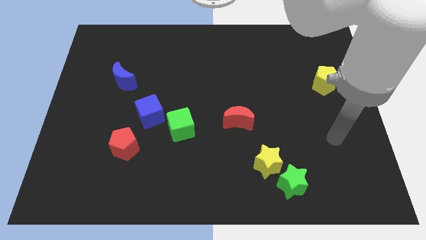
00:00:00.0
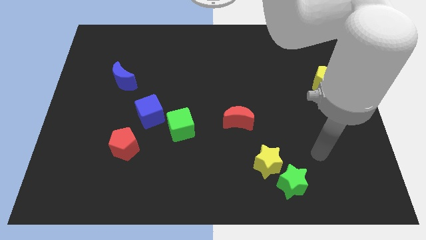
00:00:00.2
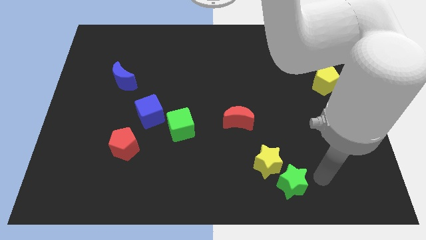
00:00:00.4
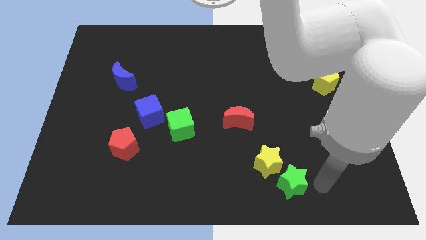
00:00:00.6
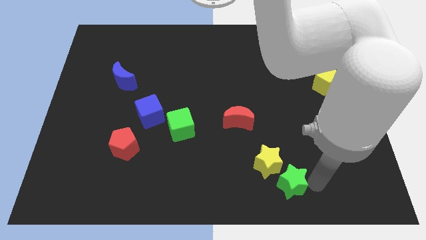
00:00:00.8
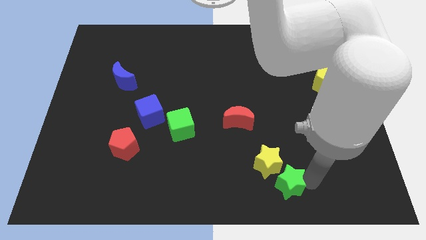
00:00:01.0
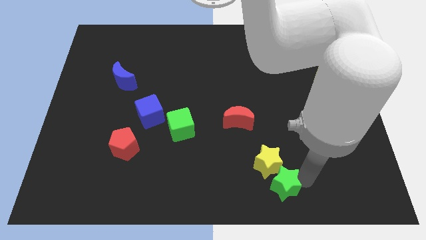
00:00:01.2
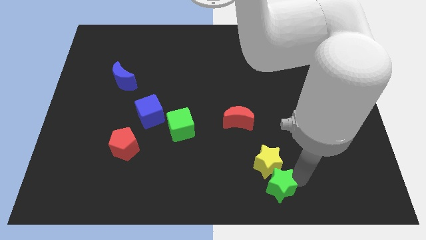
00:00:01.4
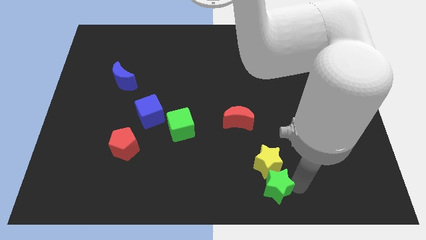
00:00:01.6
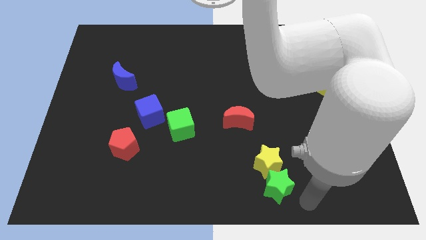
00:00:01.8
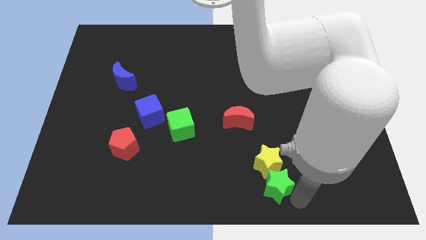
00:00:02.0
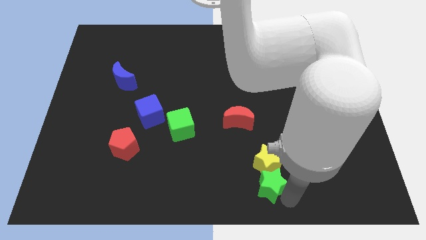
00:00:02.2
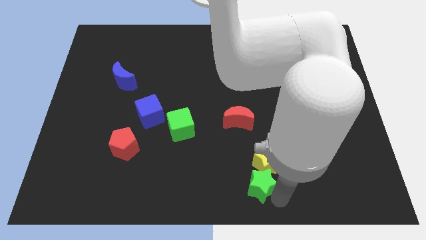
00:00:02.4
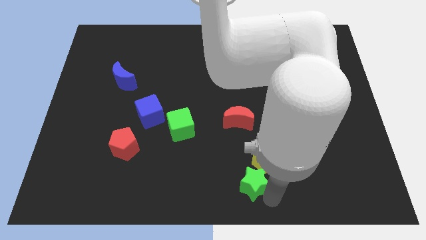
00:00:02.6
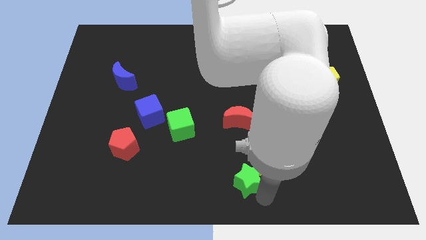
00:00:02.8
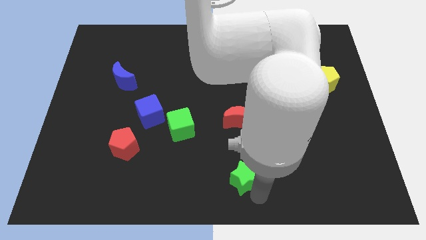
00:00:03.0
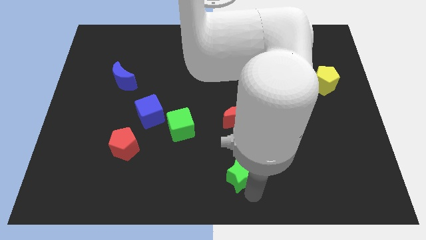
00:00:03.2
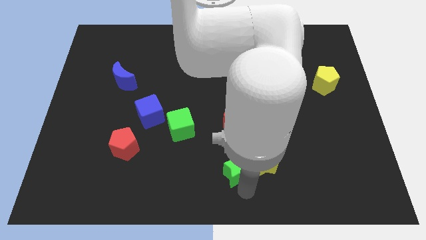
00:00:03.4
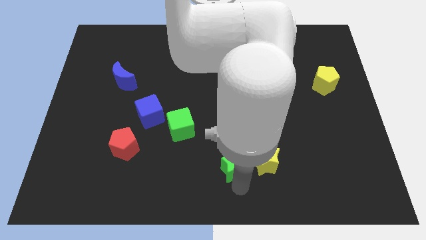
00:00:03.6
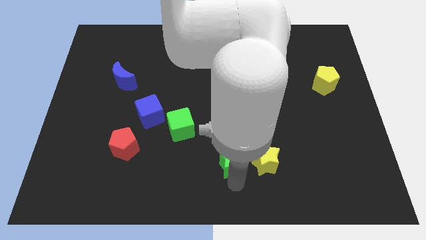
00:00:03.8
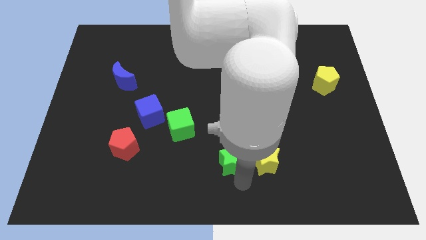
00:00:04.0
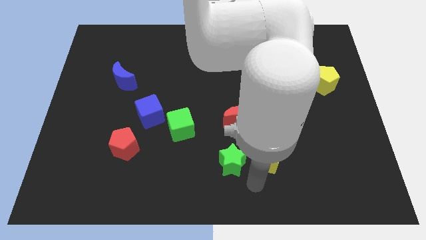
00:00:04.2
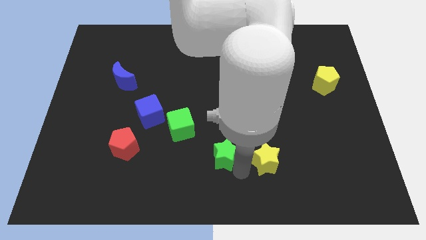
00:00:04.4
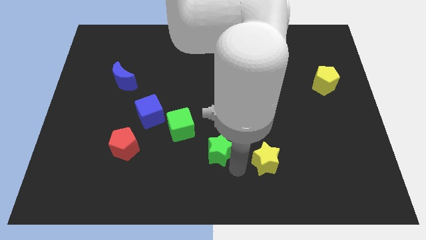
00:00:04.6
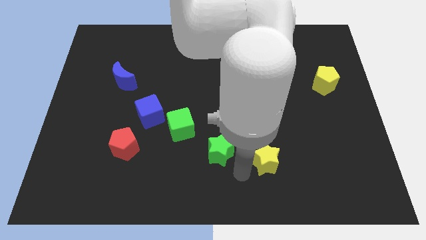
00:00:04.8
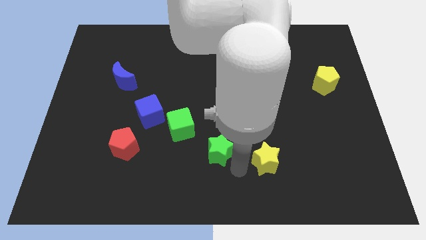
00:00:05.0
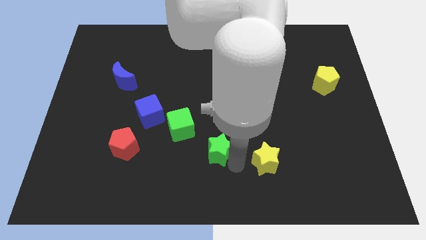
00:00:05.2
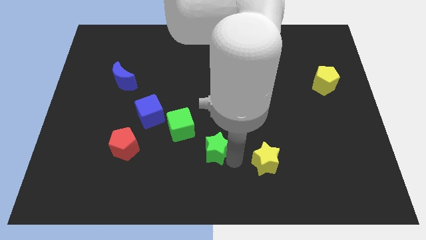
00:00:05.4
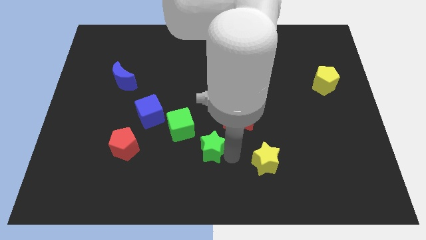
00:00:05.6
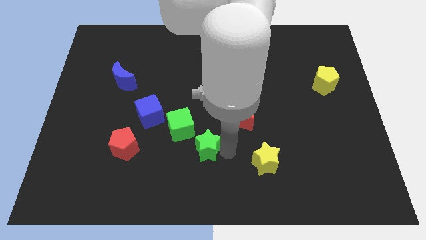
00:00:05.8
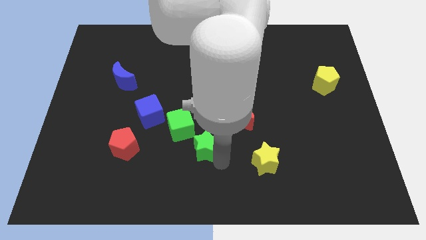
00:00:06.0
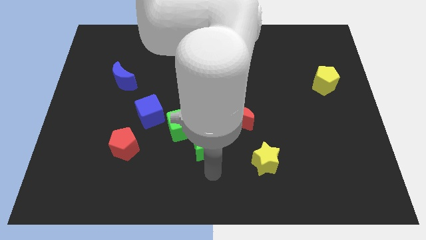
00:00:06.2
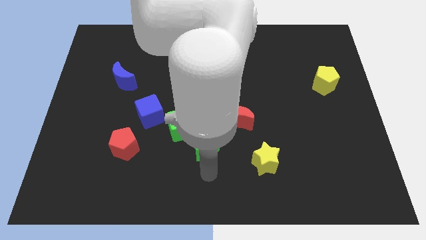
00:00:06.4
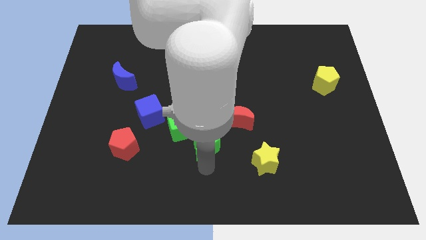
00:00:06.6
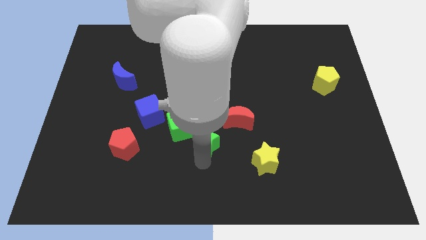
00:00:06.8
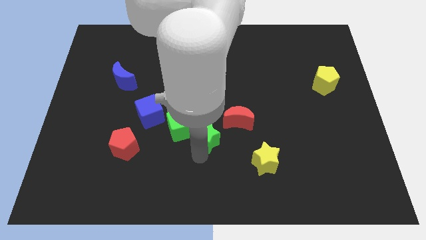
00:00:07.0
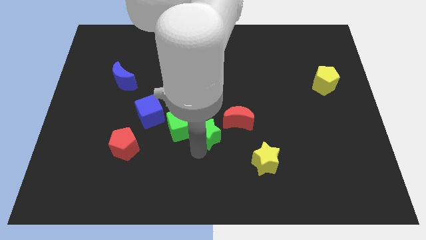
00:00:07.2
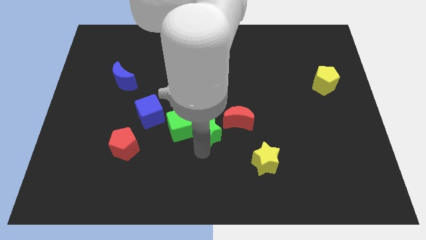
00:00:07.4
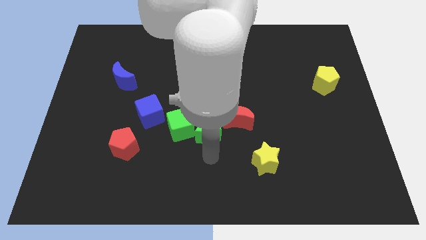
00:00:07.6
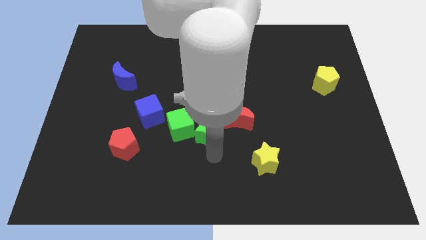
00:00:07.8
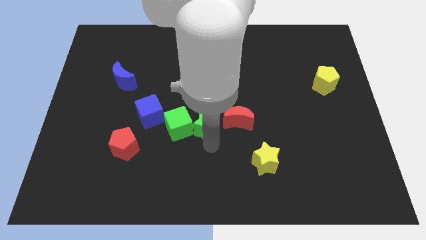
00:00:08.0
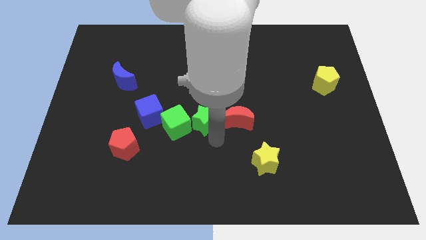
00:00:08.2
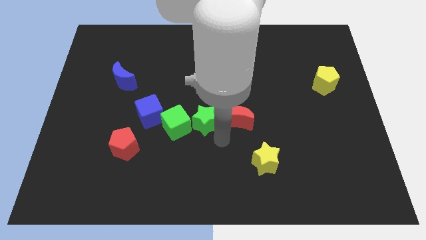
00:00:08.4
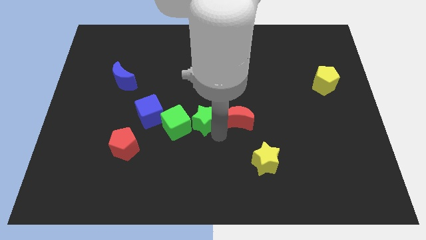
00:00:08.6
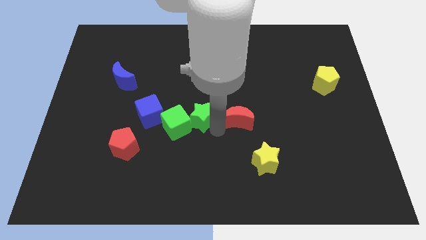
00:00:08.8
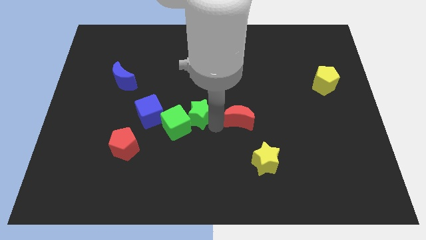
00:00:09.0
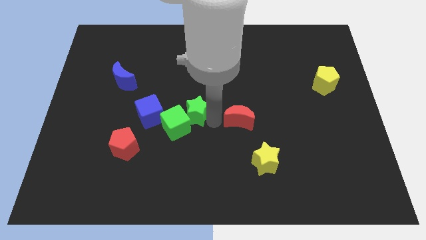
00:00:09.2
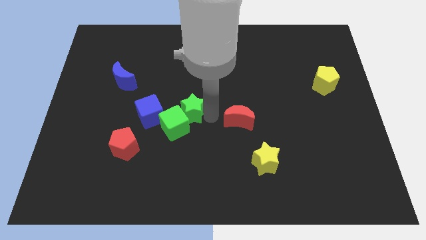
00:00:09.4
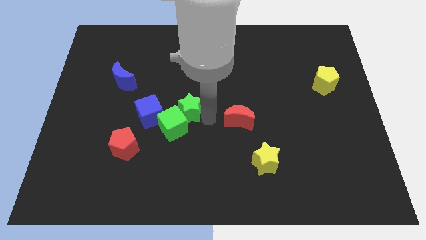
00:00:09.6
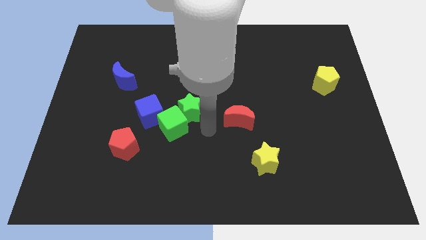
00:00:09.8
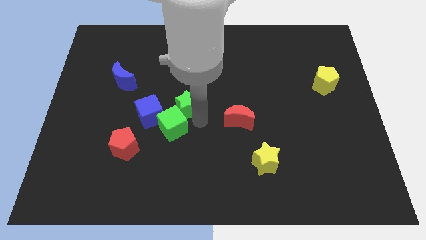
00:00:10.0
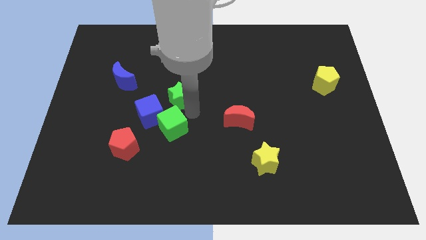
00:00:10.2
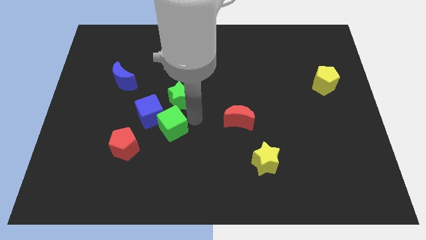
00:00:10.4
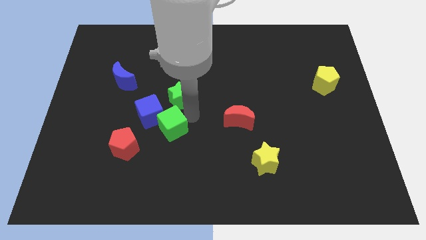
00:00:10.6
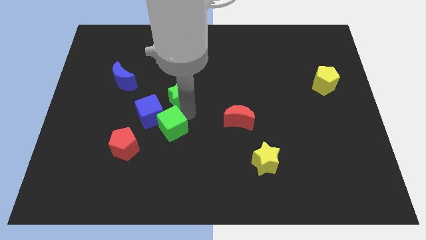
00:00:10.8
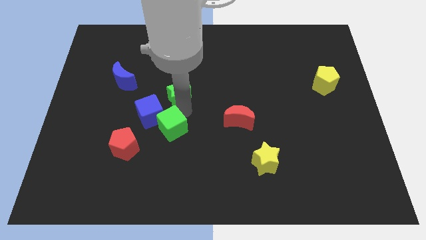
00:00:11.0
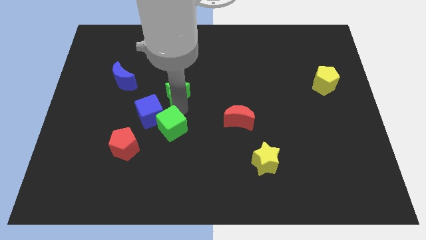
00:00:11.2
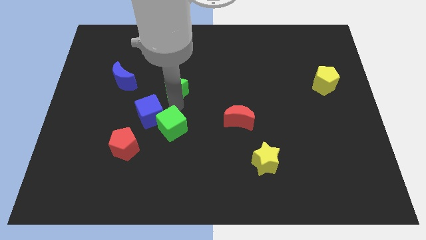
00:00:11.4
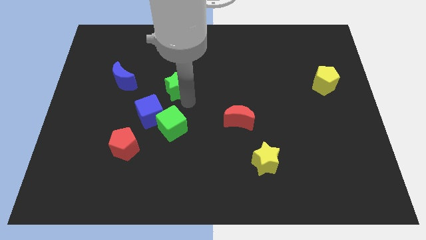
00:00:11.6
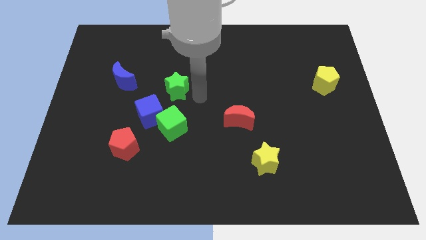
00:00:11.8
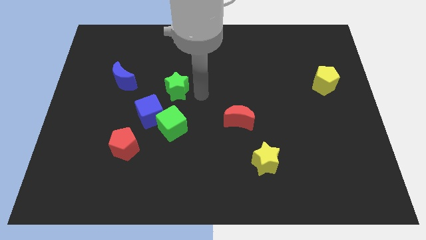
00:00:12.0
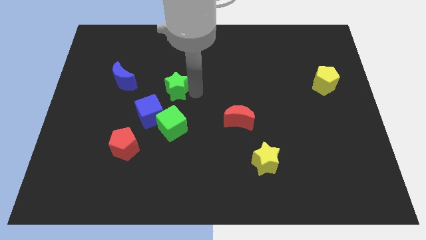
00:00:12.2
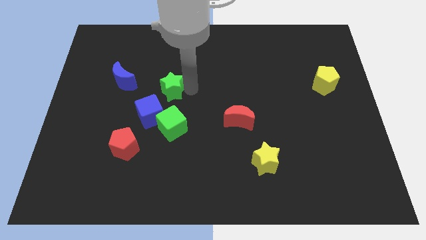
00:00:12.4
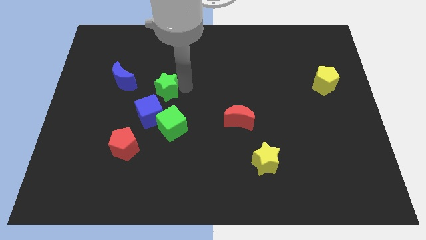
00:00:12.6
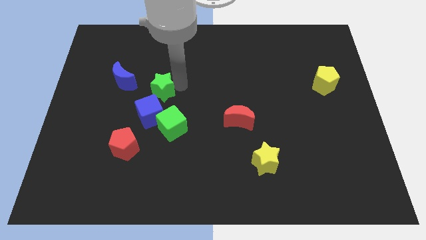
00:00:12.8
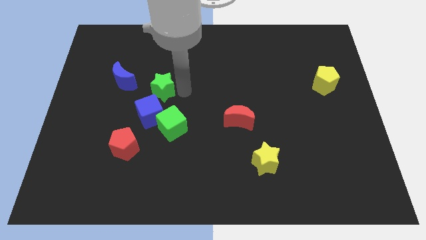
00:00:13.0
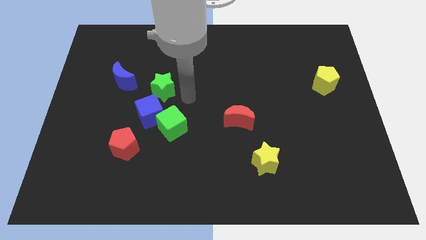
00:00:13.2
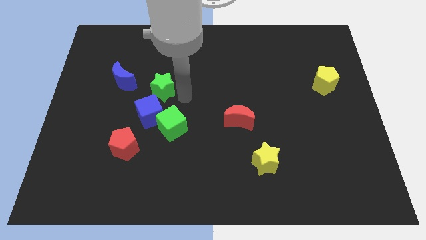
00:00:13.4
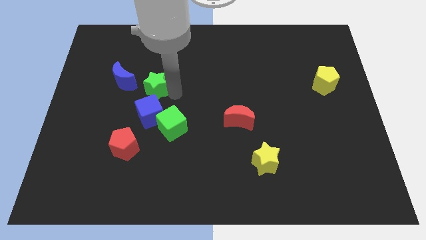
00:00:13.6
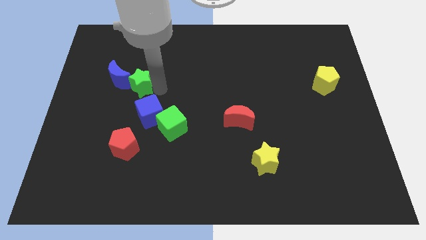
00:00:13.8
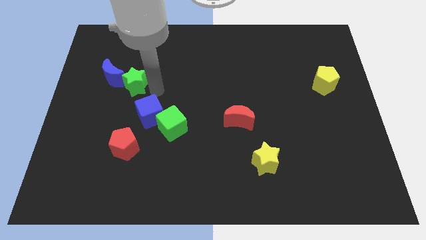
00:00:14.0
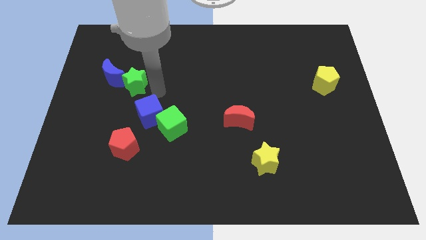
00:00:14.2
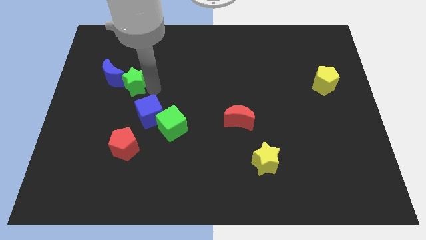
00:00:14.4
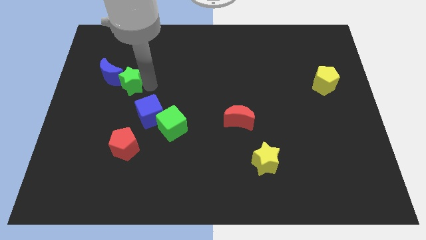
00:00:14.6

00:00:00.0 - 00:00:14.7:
put the green star towards the blue moon

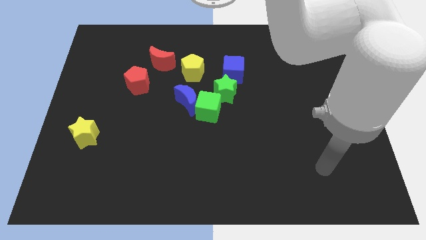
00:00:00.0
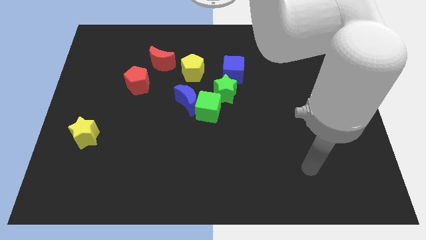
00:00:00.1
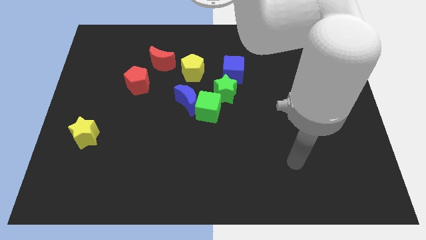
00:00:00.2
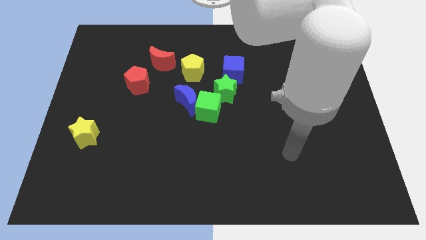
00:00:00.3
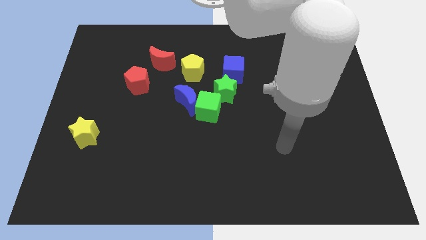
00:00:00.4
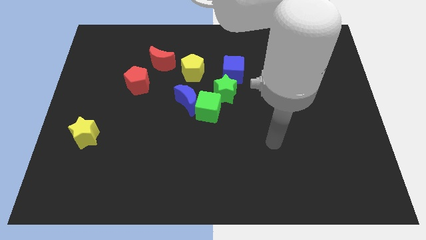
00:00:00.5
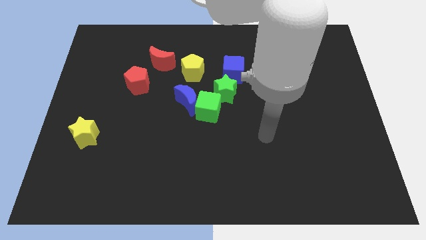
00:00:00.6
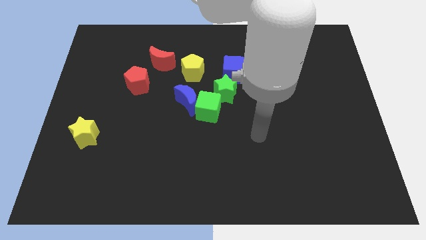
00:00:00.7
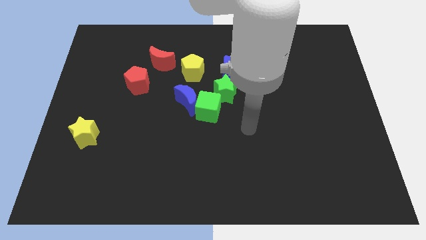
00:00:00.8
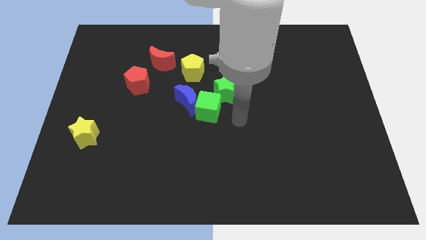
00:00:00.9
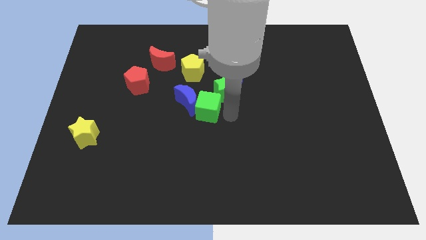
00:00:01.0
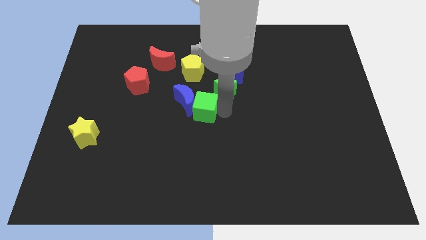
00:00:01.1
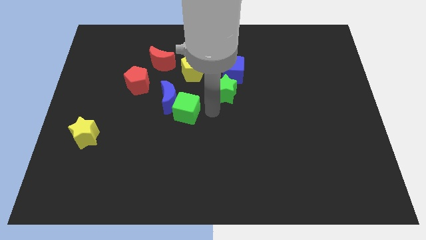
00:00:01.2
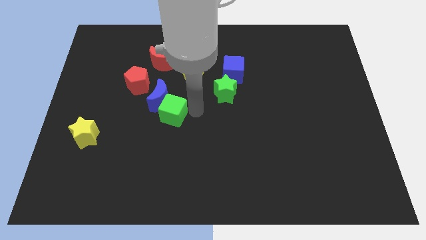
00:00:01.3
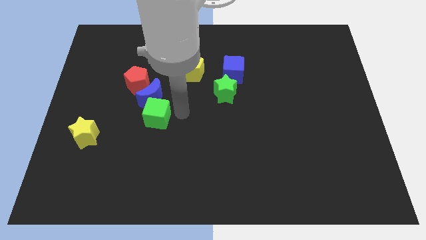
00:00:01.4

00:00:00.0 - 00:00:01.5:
slide the blue moon close to the red pentagon
